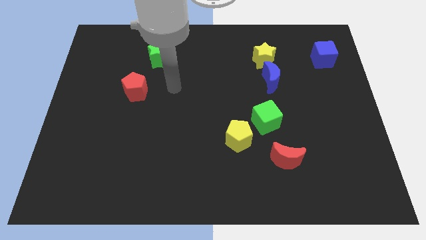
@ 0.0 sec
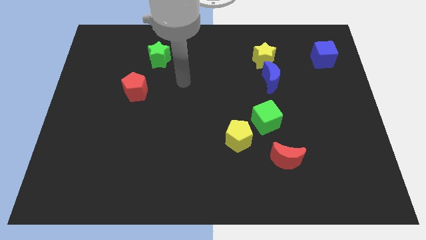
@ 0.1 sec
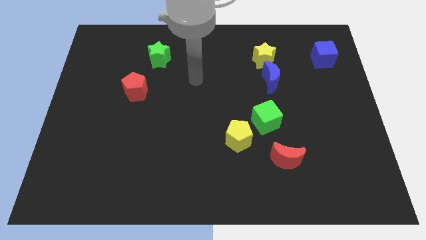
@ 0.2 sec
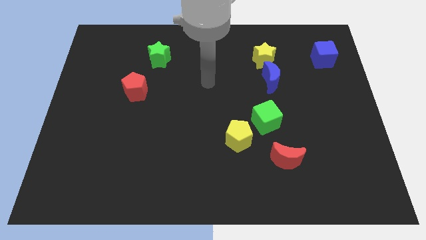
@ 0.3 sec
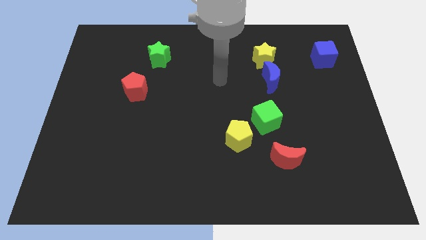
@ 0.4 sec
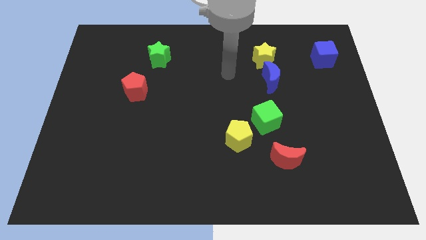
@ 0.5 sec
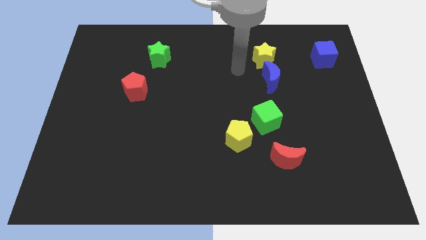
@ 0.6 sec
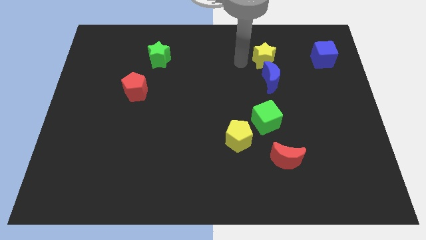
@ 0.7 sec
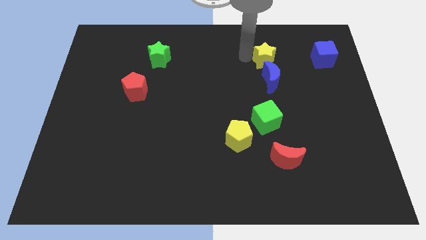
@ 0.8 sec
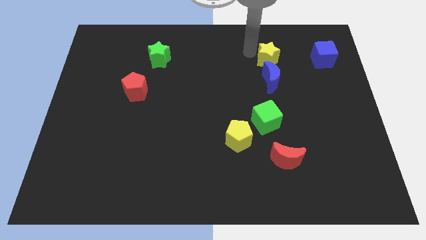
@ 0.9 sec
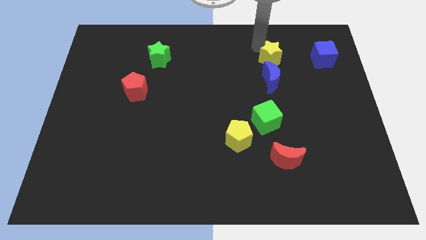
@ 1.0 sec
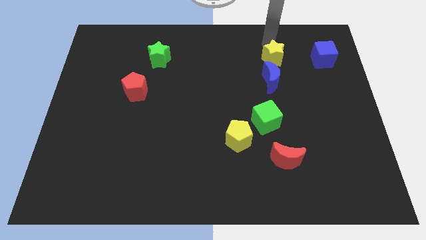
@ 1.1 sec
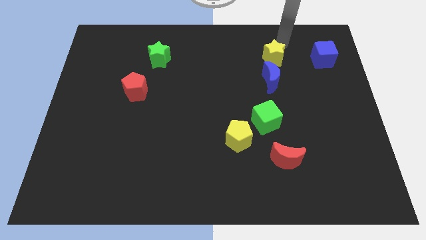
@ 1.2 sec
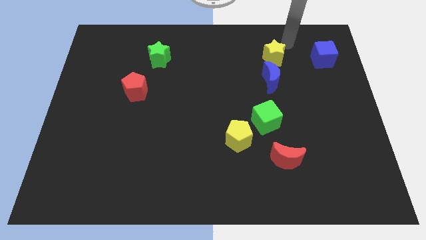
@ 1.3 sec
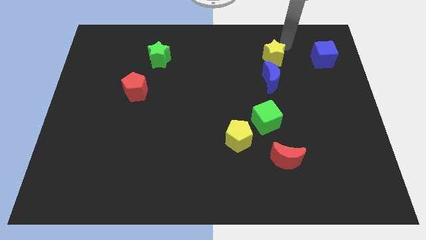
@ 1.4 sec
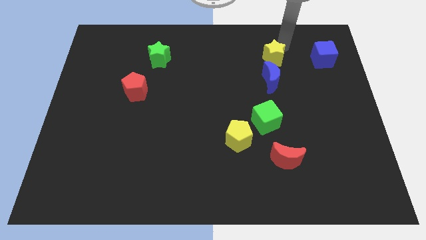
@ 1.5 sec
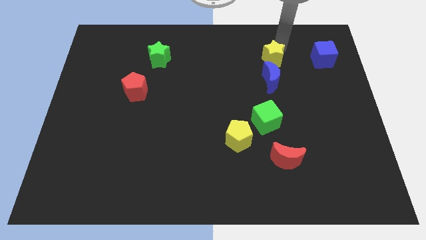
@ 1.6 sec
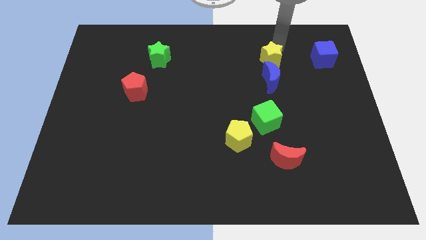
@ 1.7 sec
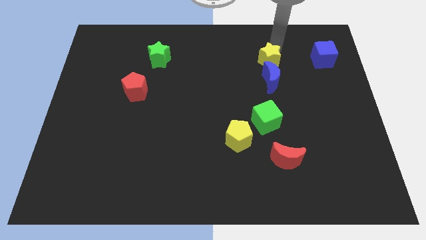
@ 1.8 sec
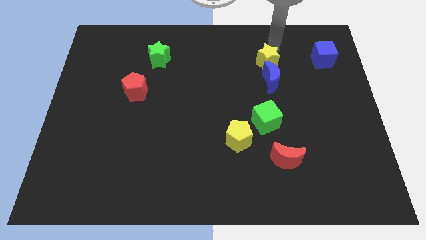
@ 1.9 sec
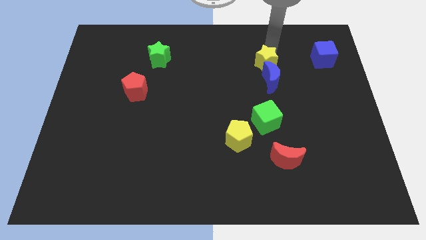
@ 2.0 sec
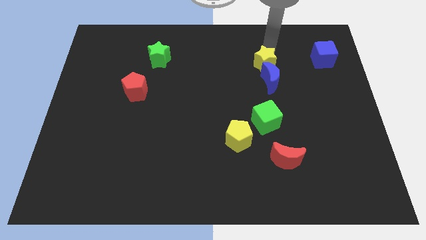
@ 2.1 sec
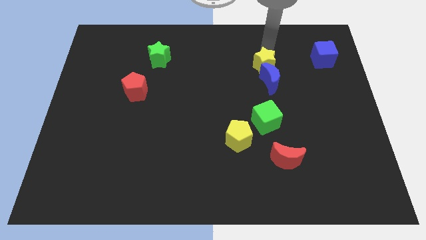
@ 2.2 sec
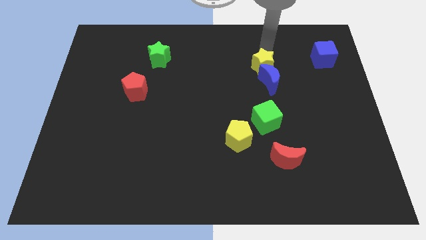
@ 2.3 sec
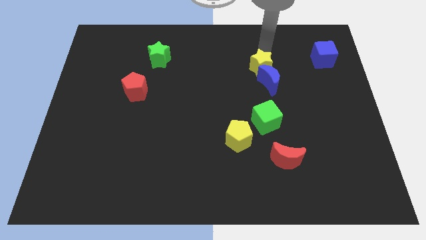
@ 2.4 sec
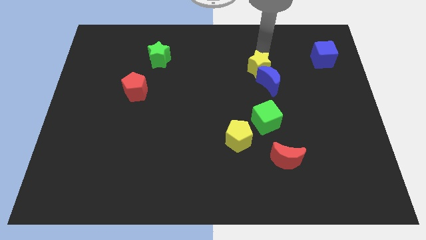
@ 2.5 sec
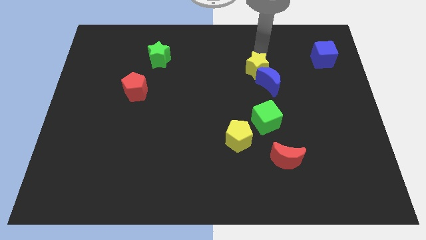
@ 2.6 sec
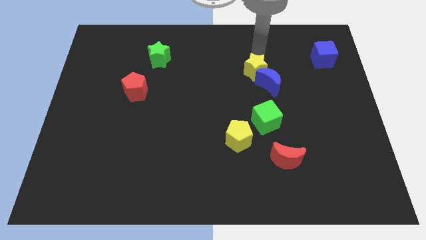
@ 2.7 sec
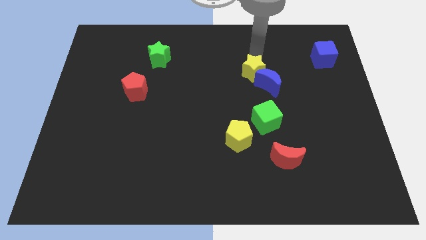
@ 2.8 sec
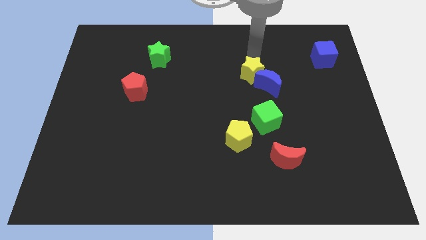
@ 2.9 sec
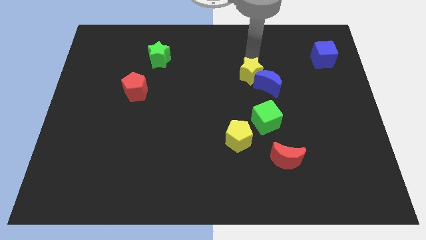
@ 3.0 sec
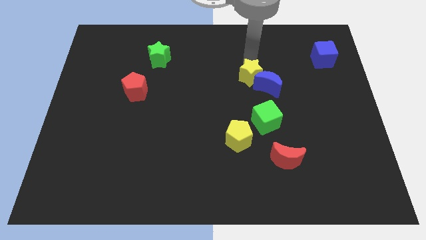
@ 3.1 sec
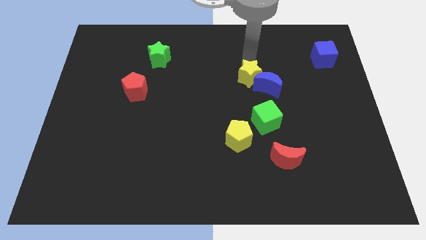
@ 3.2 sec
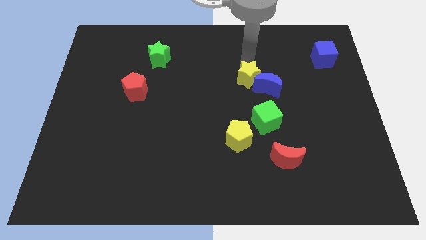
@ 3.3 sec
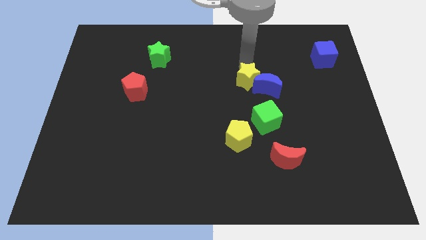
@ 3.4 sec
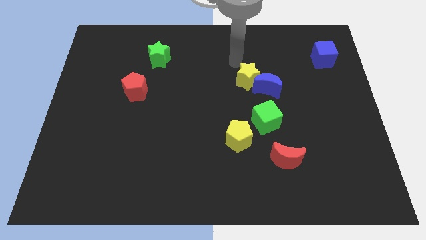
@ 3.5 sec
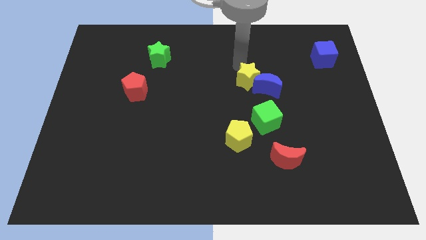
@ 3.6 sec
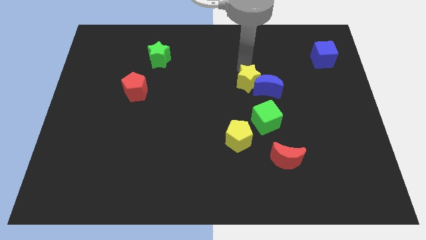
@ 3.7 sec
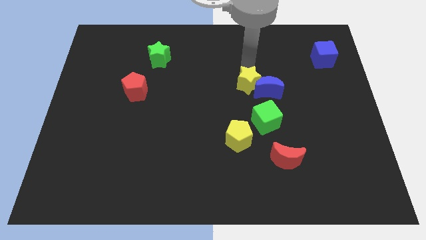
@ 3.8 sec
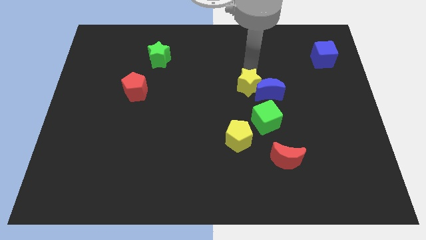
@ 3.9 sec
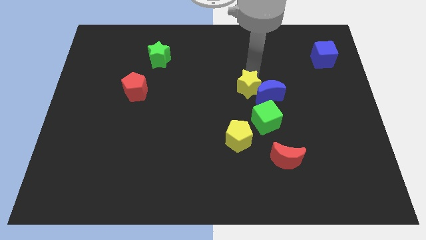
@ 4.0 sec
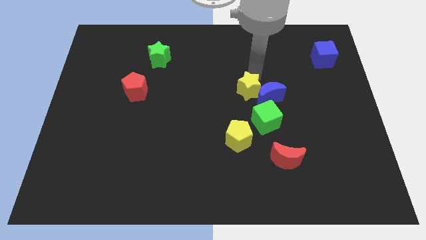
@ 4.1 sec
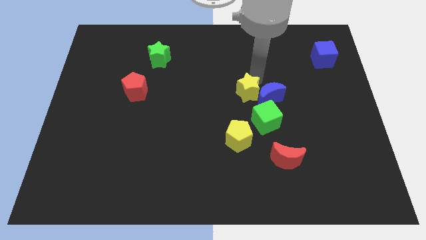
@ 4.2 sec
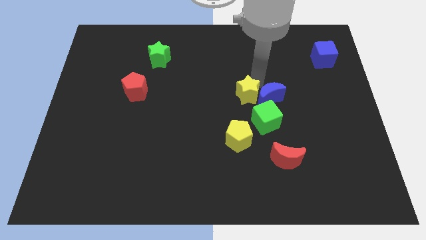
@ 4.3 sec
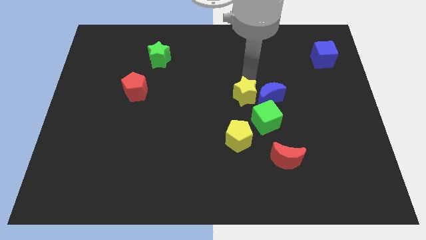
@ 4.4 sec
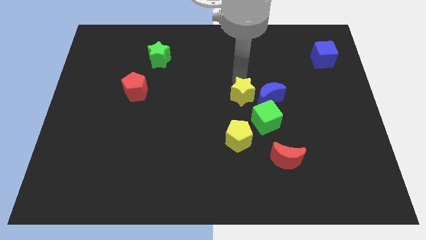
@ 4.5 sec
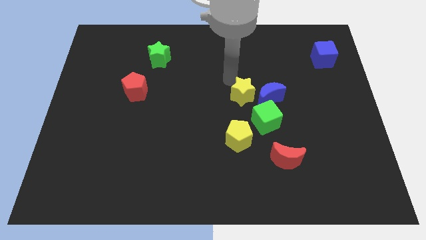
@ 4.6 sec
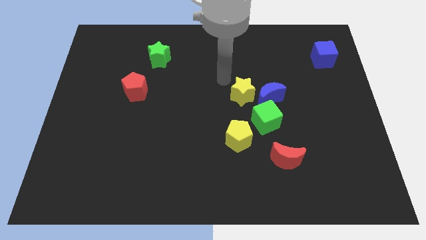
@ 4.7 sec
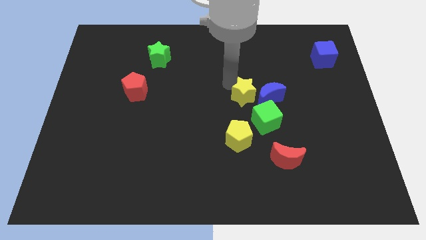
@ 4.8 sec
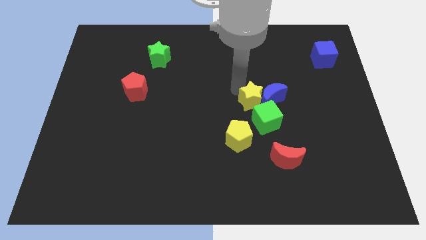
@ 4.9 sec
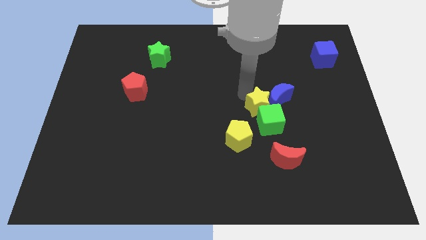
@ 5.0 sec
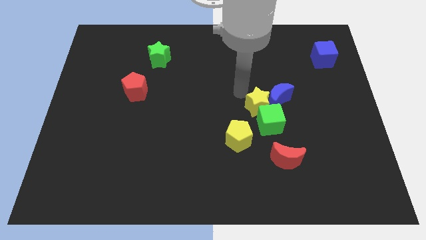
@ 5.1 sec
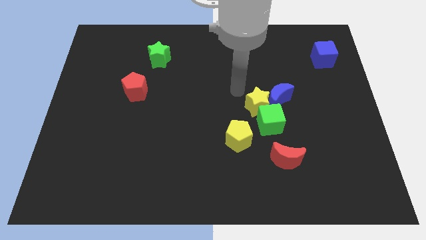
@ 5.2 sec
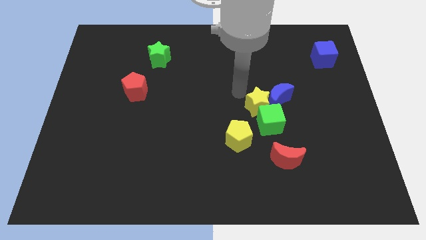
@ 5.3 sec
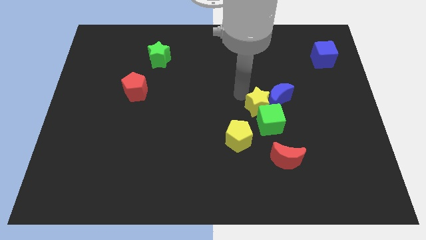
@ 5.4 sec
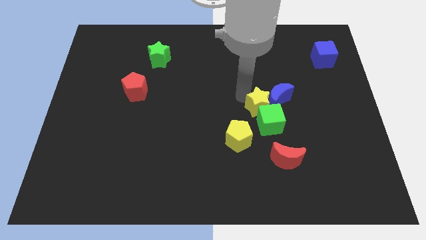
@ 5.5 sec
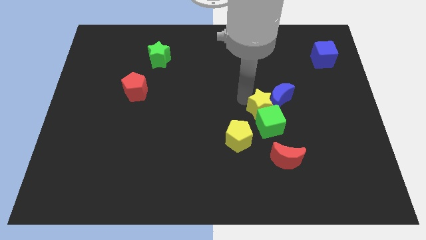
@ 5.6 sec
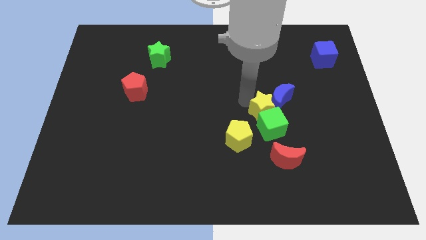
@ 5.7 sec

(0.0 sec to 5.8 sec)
push the yellow star to the top side of the red moon

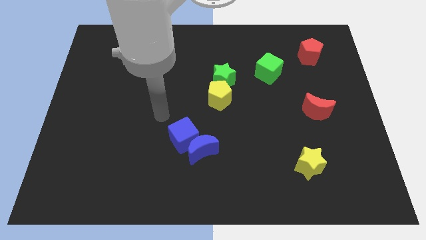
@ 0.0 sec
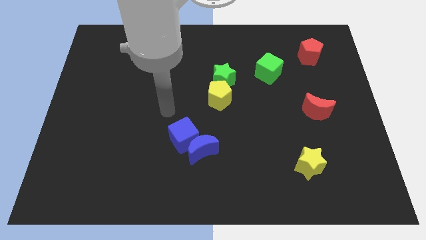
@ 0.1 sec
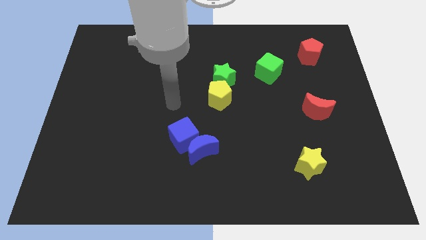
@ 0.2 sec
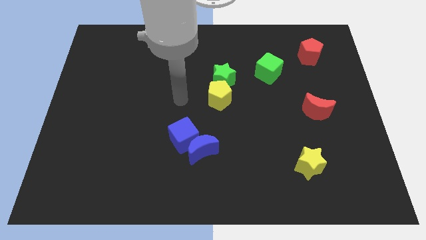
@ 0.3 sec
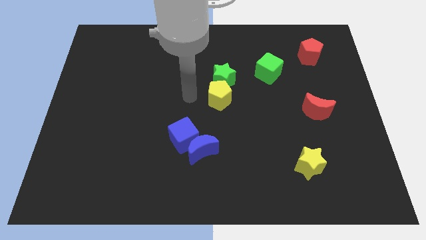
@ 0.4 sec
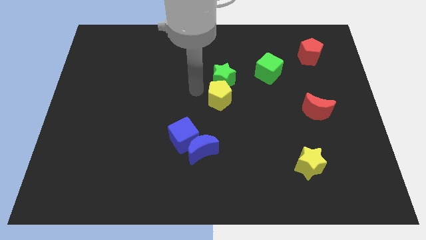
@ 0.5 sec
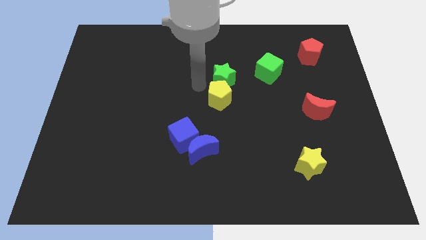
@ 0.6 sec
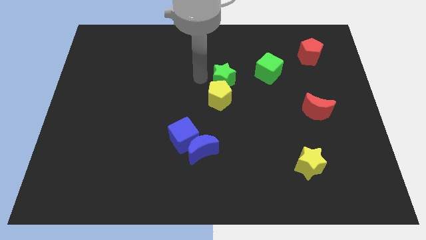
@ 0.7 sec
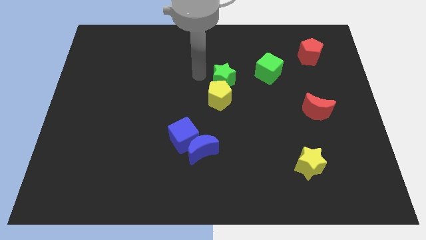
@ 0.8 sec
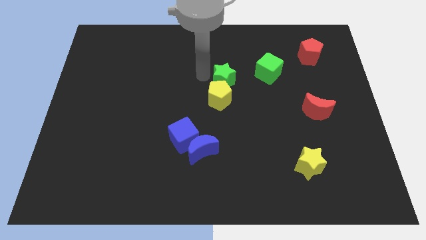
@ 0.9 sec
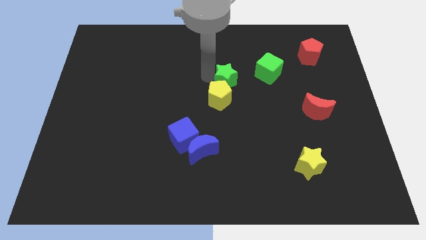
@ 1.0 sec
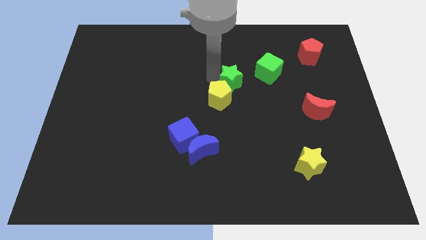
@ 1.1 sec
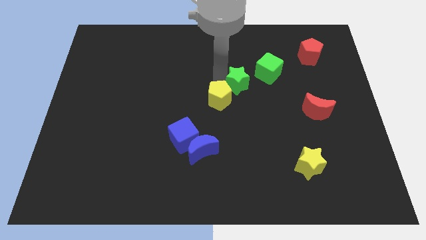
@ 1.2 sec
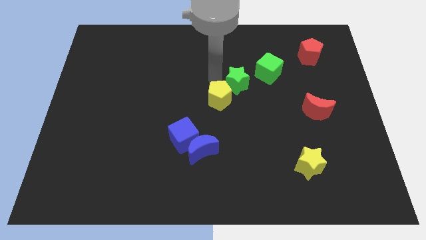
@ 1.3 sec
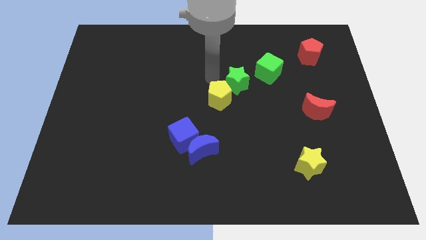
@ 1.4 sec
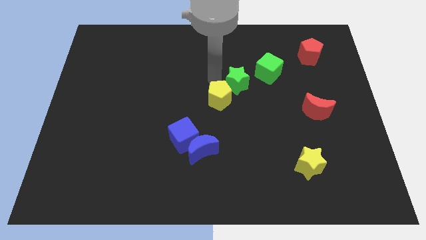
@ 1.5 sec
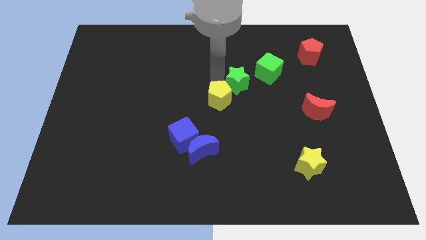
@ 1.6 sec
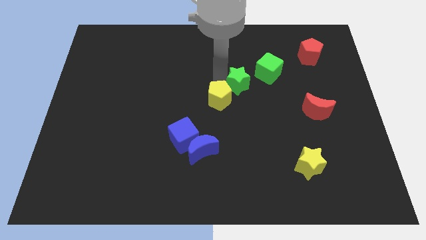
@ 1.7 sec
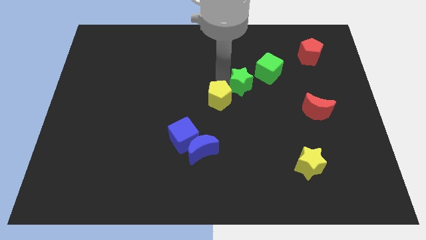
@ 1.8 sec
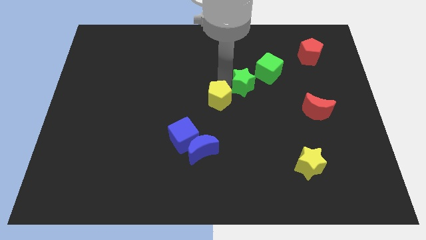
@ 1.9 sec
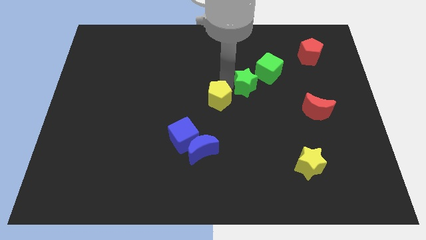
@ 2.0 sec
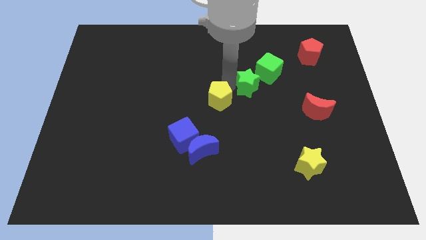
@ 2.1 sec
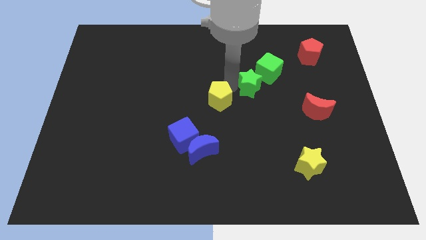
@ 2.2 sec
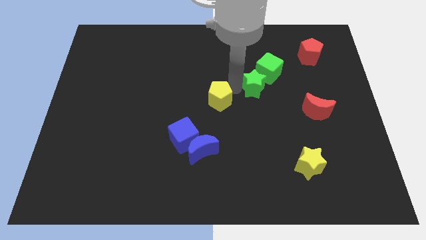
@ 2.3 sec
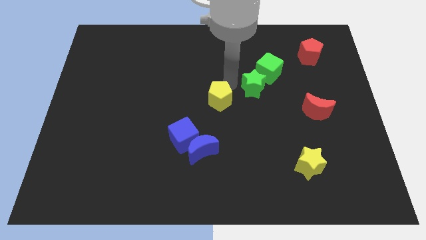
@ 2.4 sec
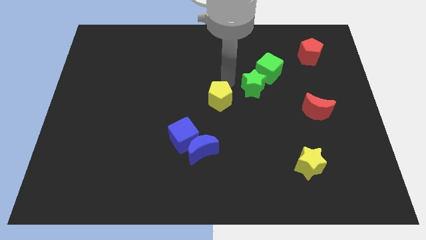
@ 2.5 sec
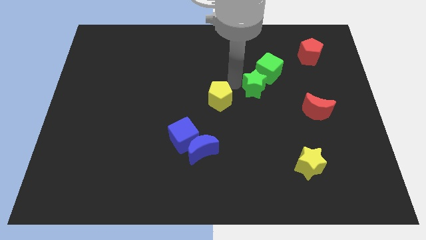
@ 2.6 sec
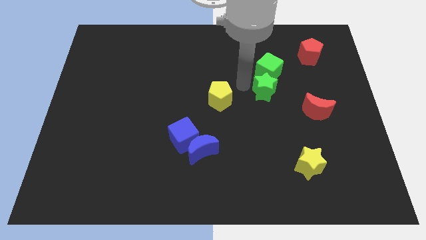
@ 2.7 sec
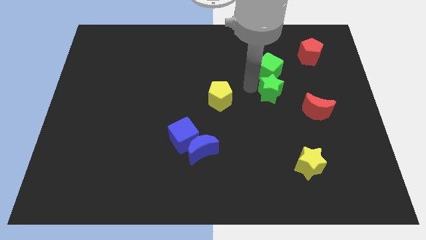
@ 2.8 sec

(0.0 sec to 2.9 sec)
push the green star to the top left side of the red moon
